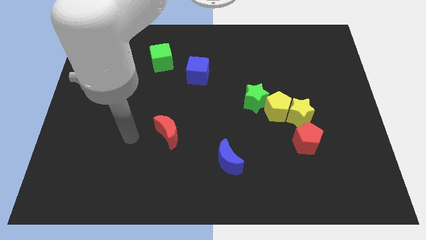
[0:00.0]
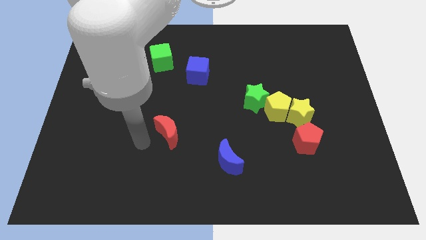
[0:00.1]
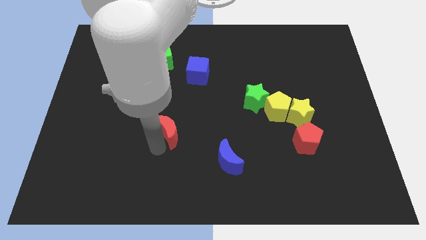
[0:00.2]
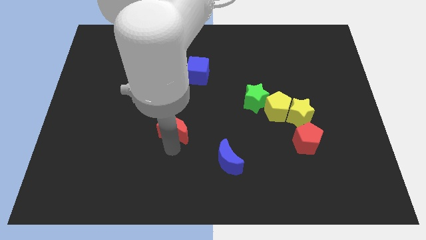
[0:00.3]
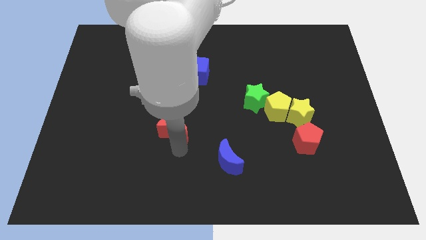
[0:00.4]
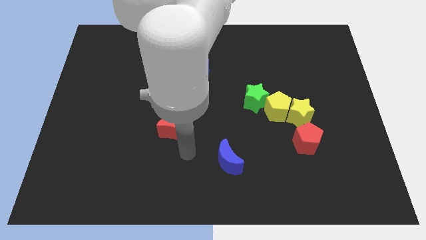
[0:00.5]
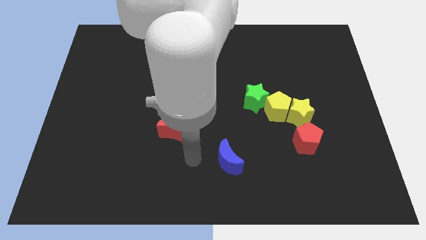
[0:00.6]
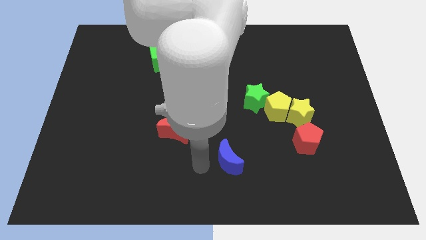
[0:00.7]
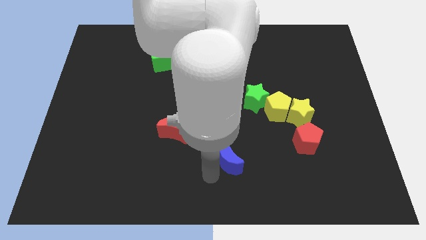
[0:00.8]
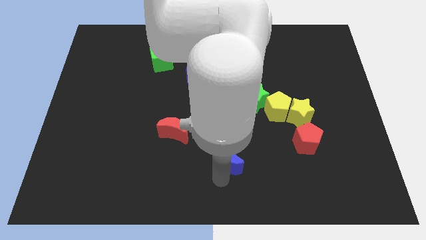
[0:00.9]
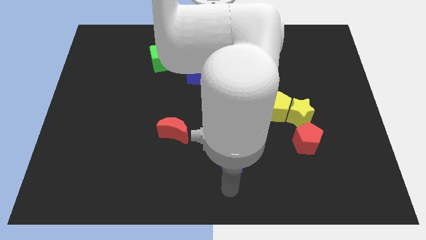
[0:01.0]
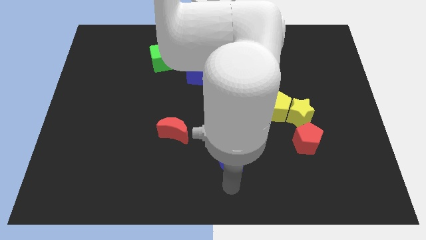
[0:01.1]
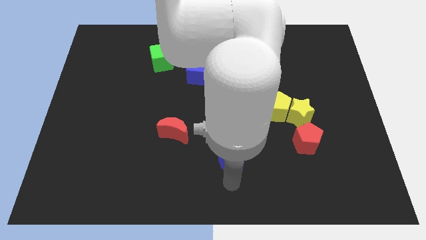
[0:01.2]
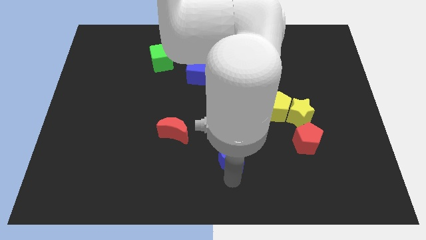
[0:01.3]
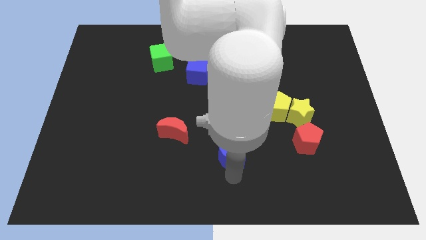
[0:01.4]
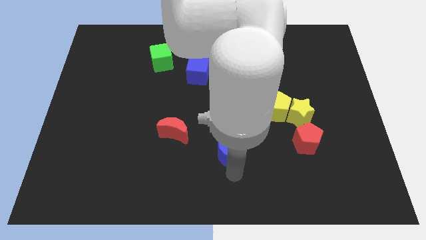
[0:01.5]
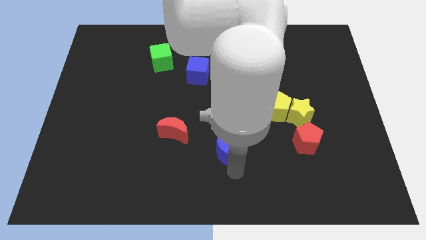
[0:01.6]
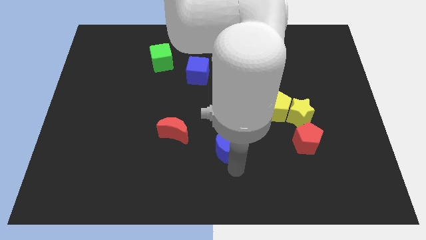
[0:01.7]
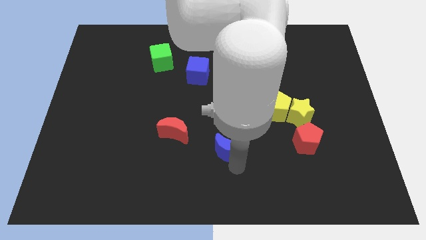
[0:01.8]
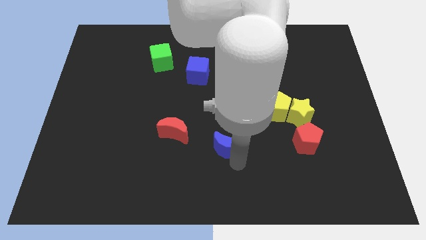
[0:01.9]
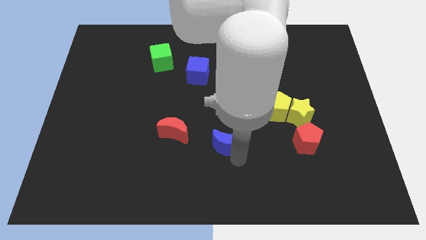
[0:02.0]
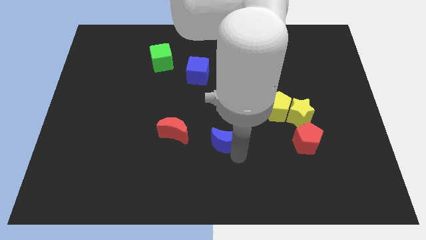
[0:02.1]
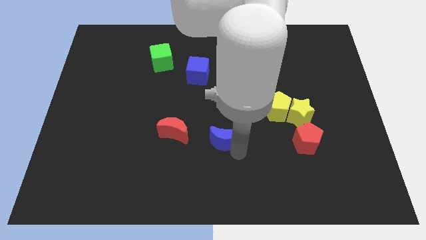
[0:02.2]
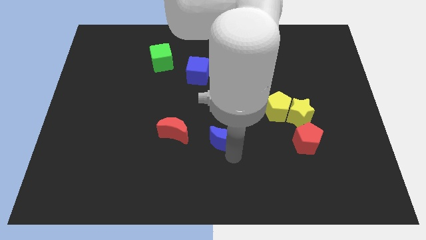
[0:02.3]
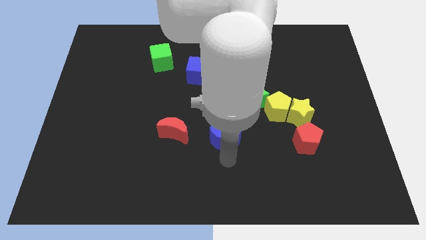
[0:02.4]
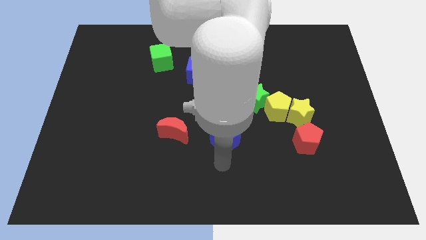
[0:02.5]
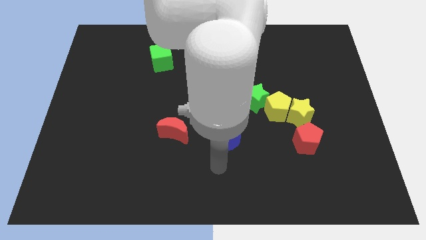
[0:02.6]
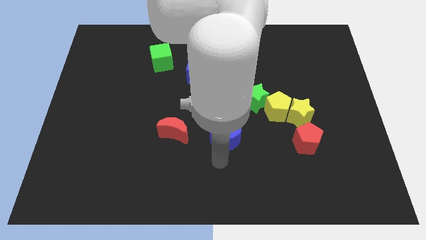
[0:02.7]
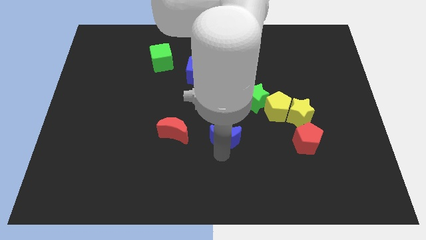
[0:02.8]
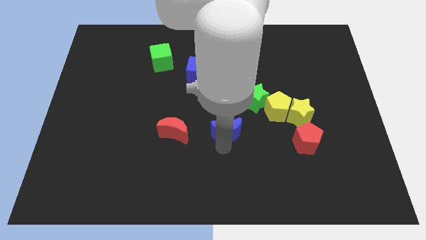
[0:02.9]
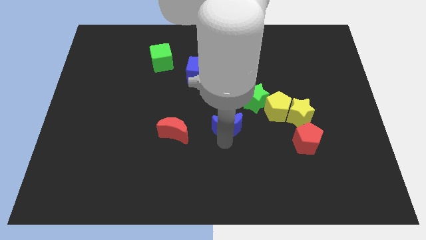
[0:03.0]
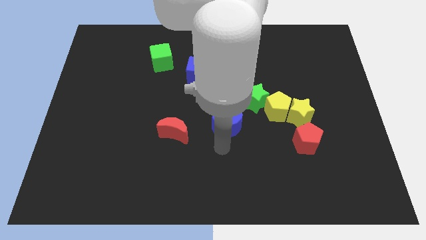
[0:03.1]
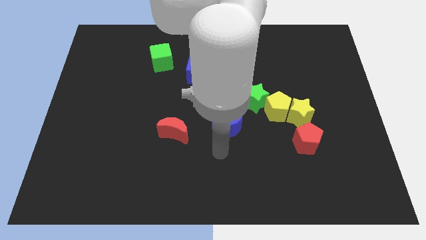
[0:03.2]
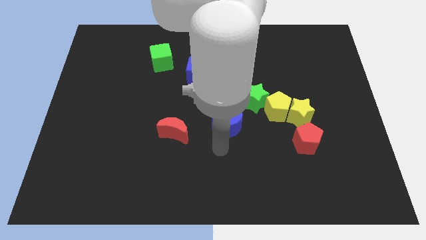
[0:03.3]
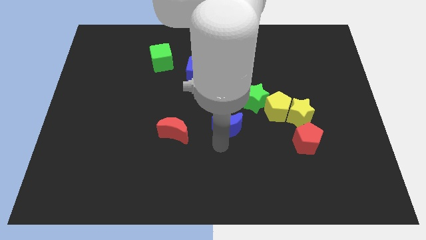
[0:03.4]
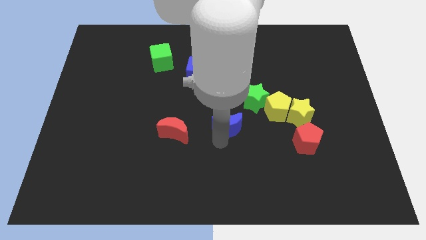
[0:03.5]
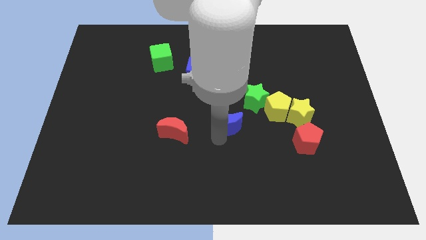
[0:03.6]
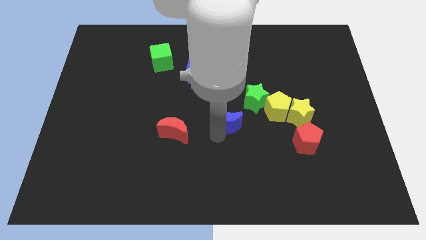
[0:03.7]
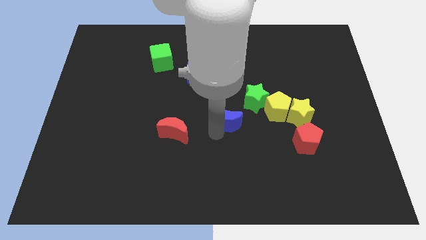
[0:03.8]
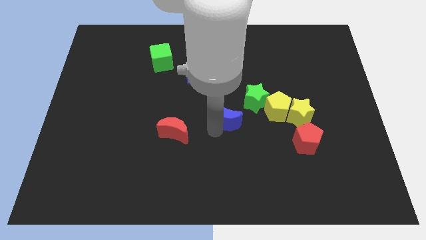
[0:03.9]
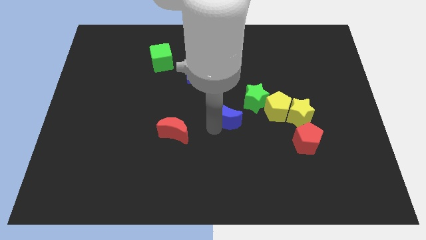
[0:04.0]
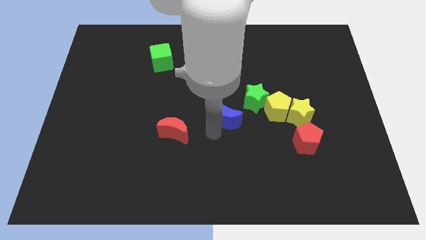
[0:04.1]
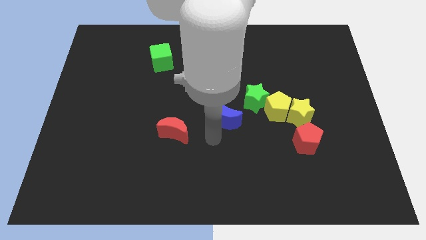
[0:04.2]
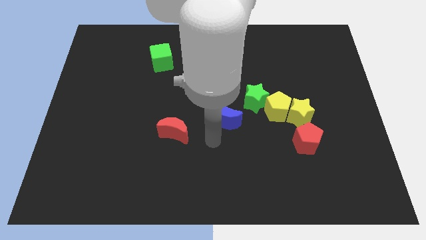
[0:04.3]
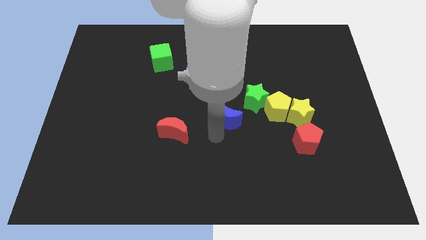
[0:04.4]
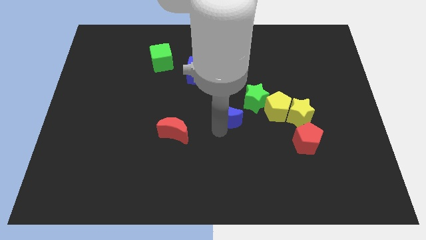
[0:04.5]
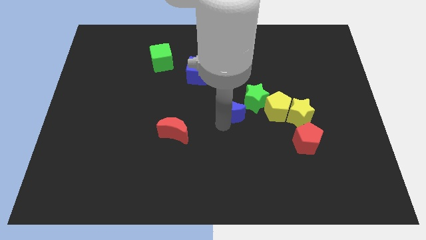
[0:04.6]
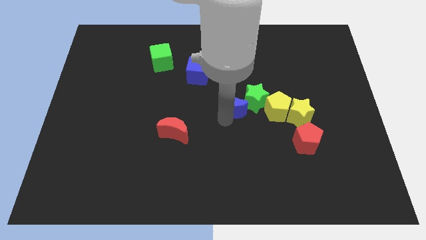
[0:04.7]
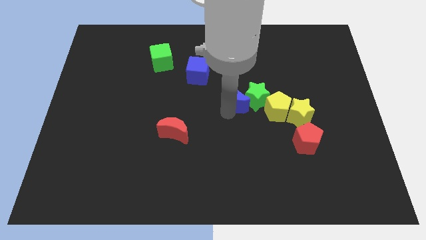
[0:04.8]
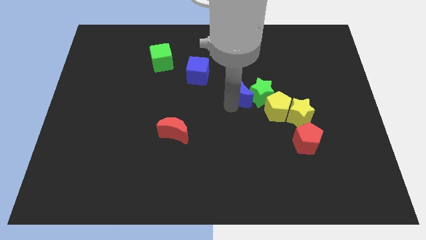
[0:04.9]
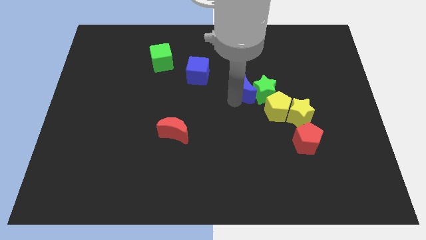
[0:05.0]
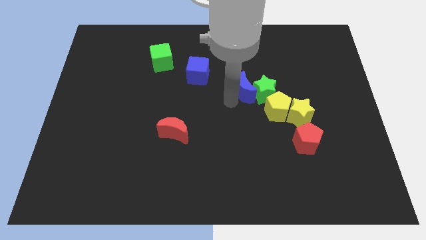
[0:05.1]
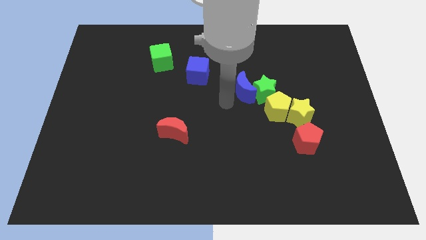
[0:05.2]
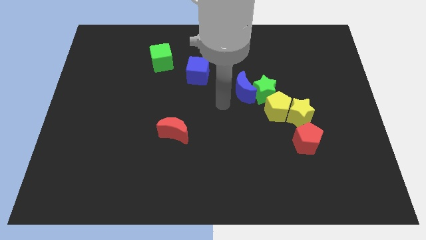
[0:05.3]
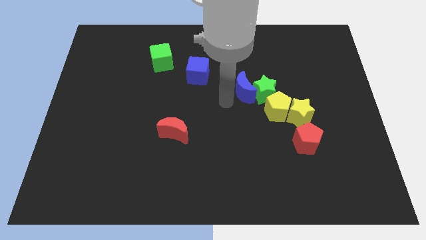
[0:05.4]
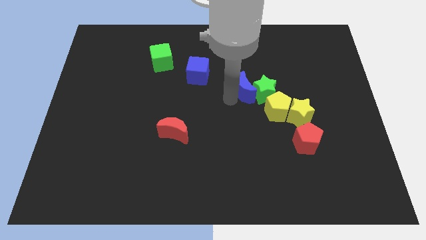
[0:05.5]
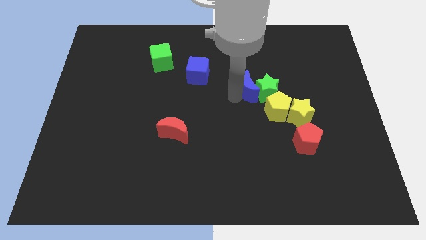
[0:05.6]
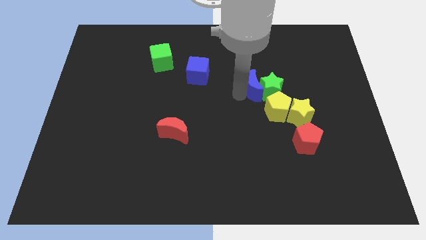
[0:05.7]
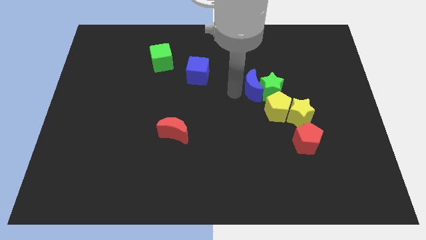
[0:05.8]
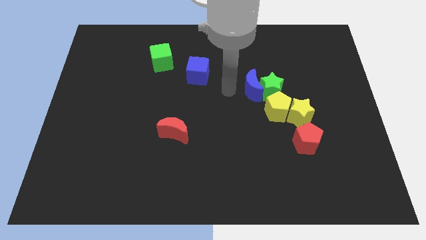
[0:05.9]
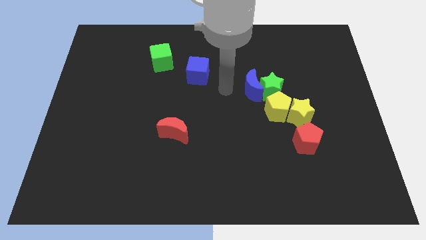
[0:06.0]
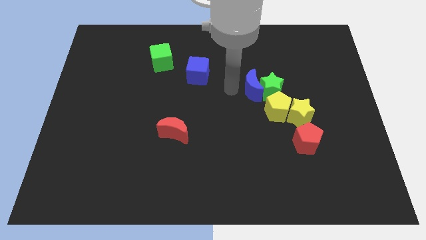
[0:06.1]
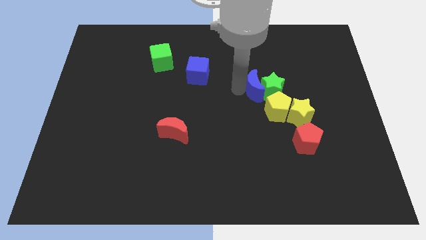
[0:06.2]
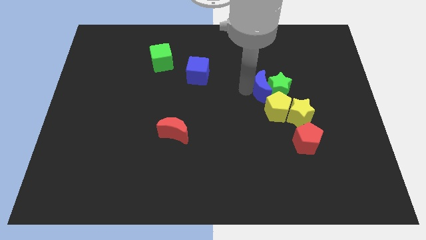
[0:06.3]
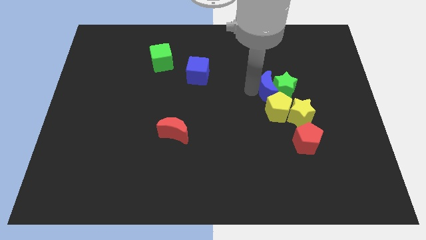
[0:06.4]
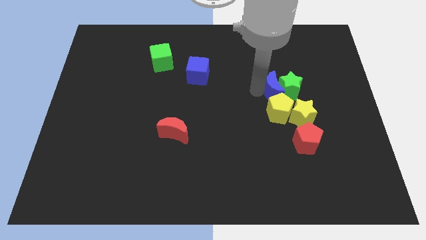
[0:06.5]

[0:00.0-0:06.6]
slide the blue moon up and to the right diagonally

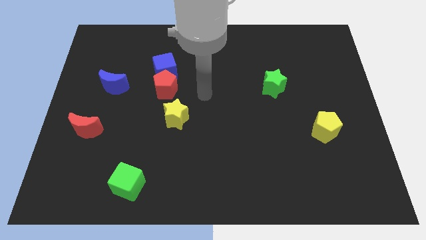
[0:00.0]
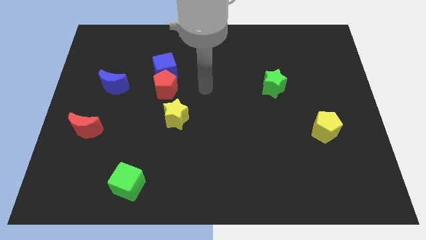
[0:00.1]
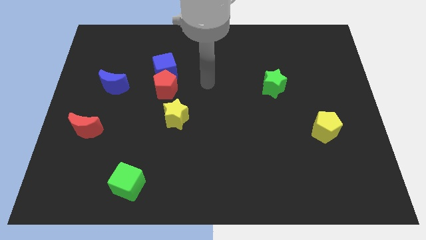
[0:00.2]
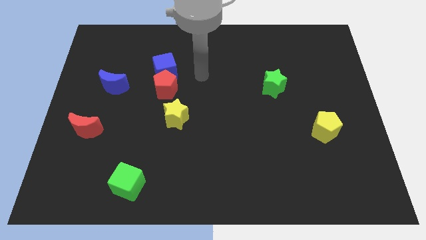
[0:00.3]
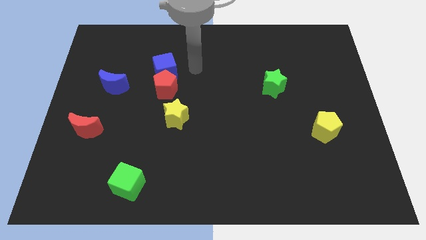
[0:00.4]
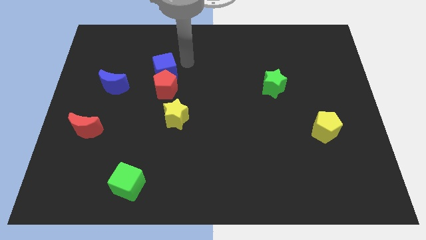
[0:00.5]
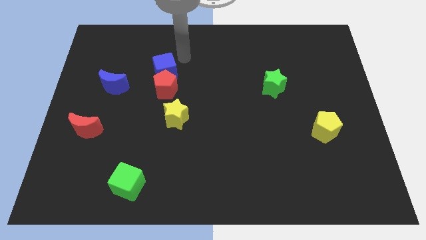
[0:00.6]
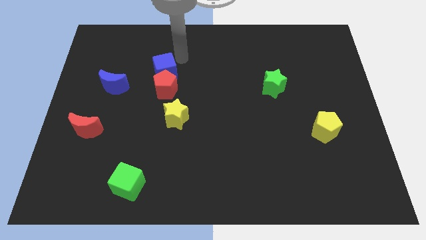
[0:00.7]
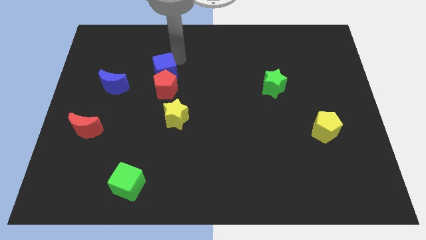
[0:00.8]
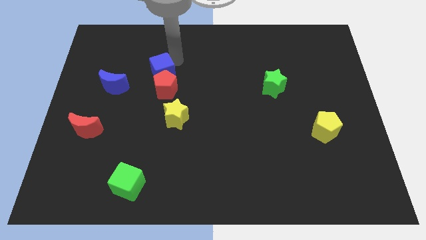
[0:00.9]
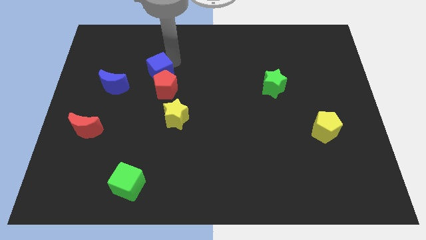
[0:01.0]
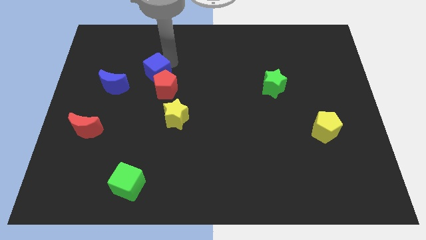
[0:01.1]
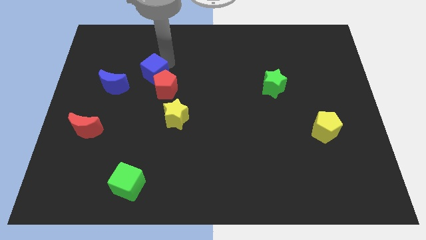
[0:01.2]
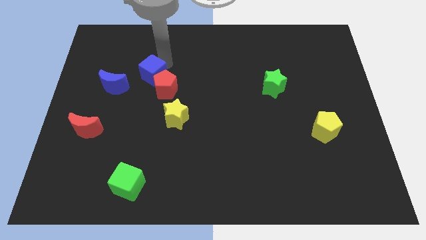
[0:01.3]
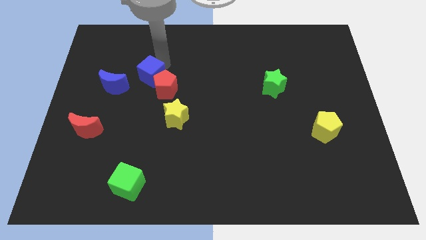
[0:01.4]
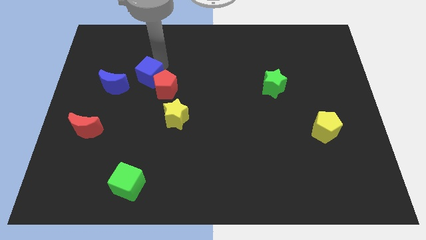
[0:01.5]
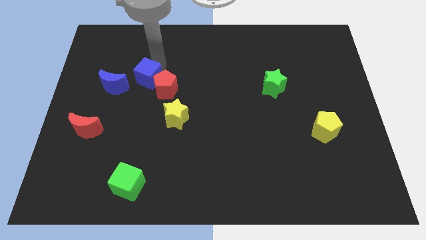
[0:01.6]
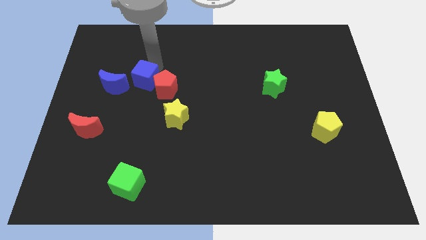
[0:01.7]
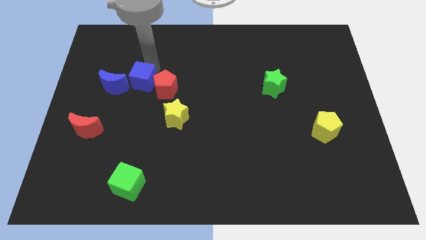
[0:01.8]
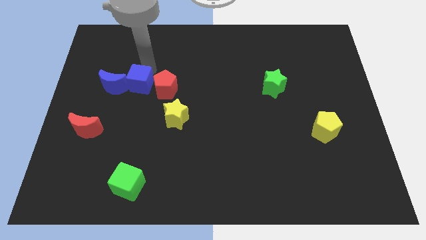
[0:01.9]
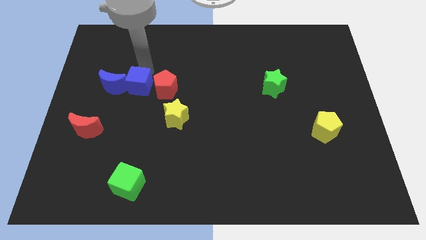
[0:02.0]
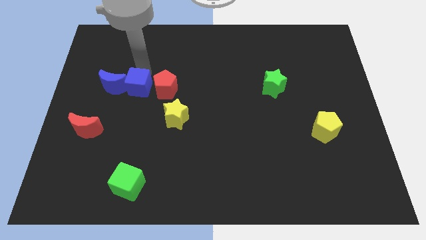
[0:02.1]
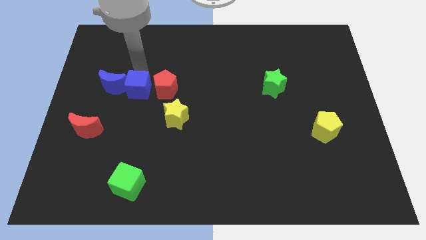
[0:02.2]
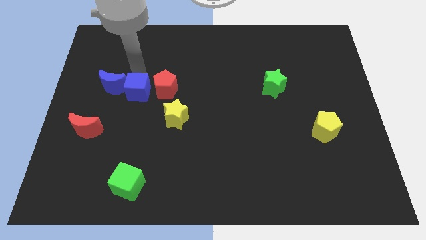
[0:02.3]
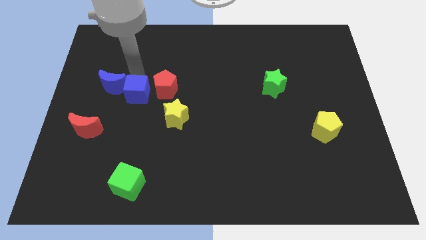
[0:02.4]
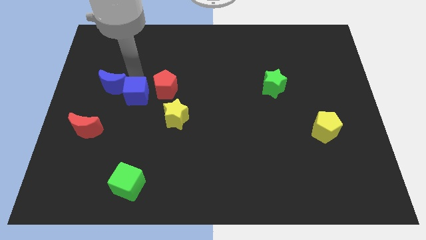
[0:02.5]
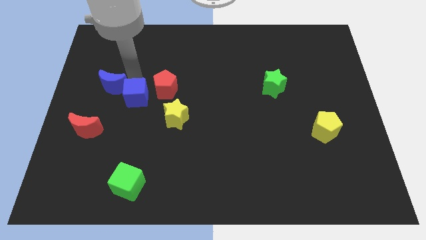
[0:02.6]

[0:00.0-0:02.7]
slightly push the blue cube down
